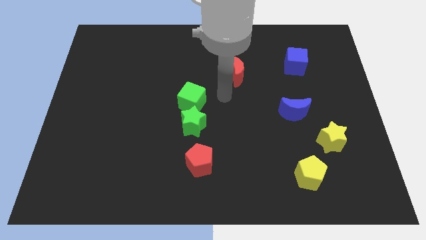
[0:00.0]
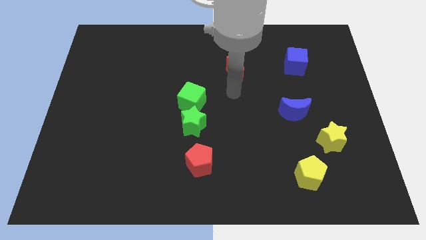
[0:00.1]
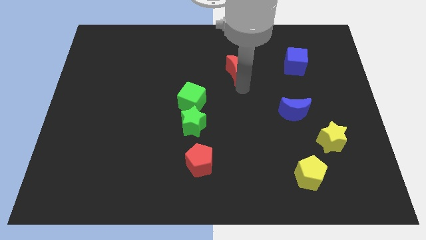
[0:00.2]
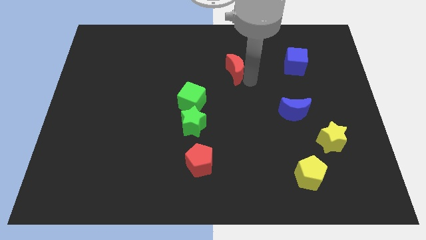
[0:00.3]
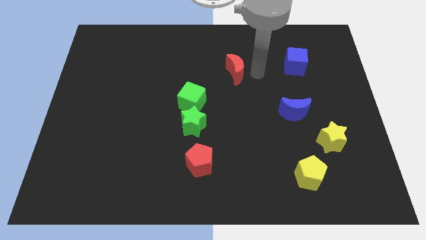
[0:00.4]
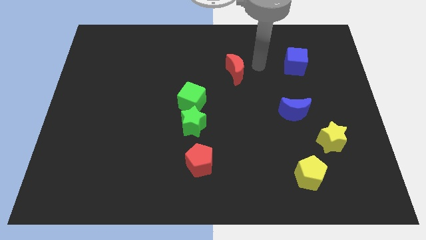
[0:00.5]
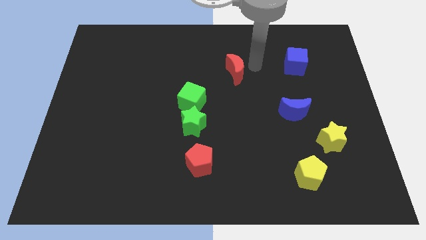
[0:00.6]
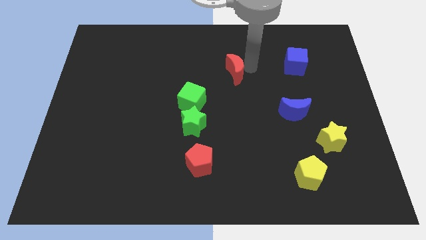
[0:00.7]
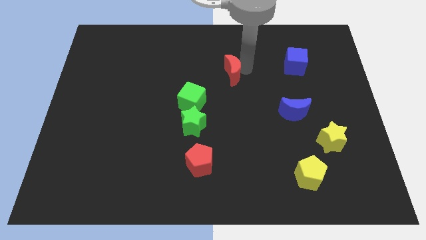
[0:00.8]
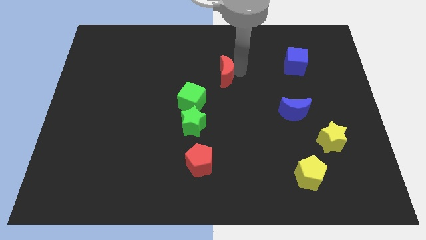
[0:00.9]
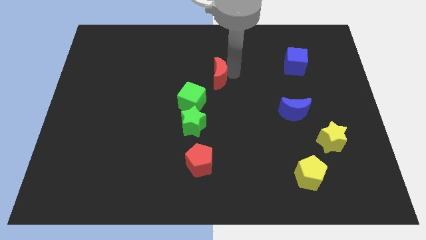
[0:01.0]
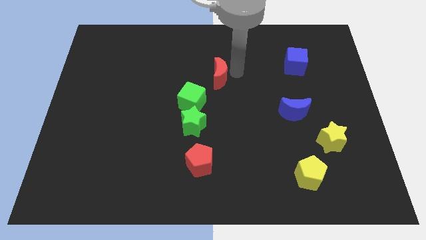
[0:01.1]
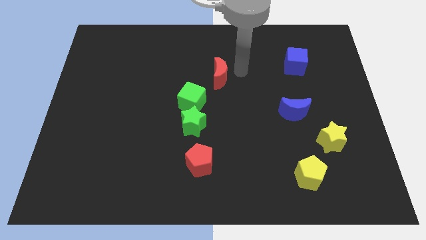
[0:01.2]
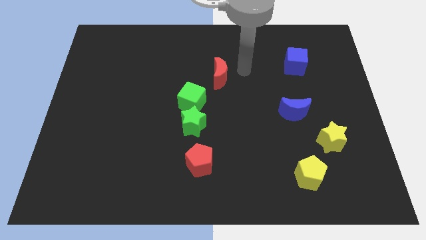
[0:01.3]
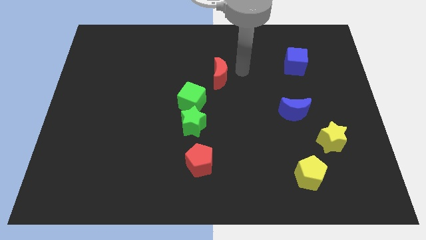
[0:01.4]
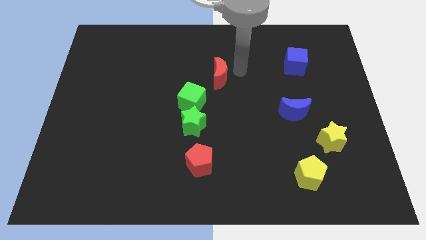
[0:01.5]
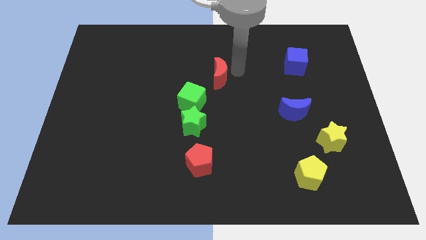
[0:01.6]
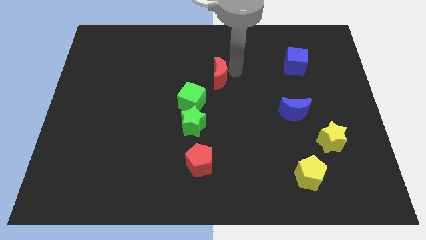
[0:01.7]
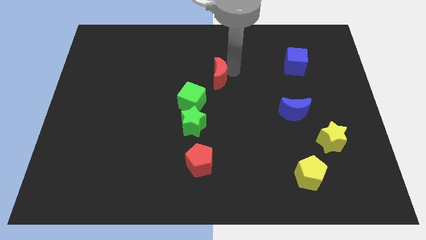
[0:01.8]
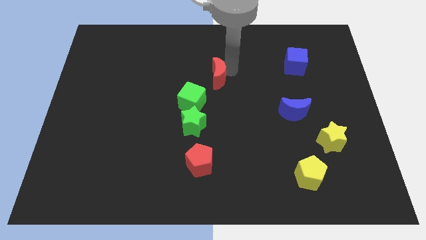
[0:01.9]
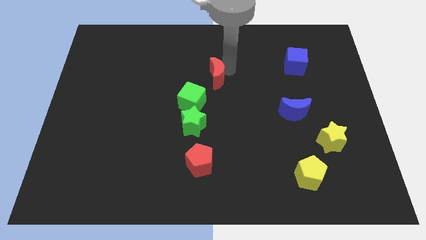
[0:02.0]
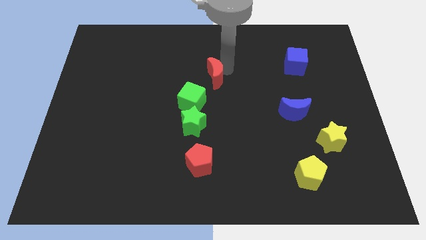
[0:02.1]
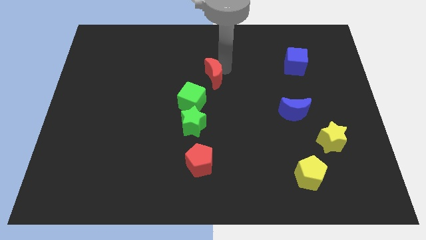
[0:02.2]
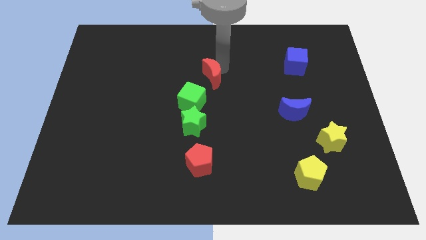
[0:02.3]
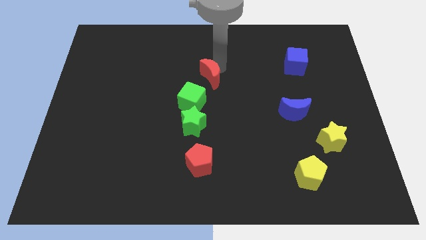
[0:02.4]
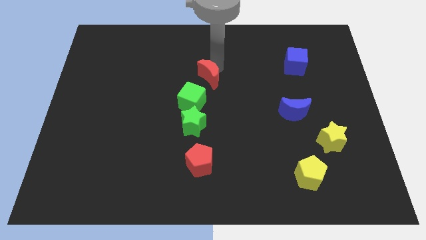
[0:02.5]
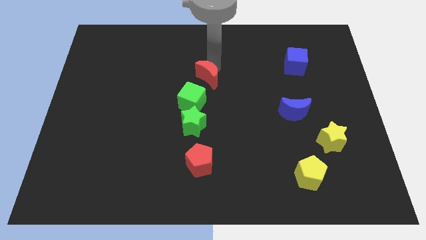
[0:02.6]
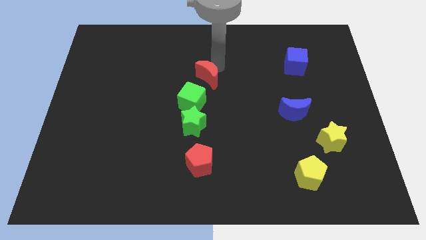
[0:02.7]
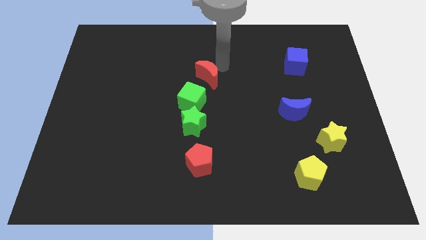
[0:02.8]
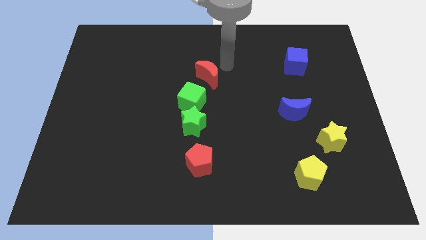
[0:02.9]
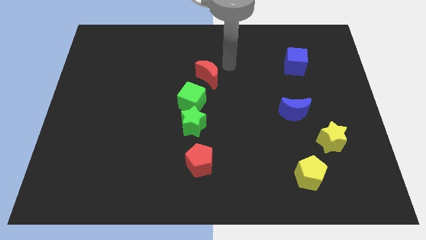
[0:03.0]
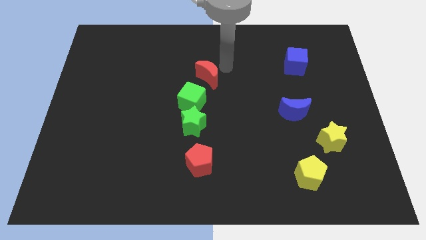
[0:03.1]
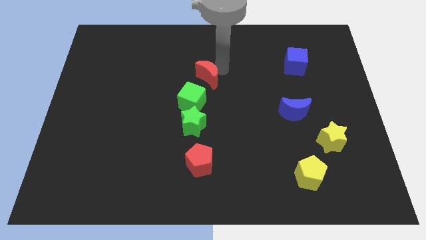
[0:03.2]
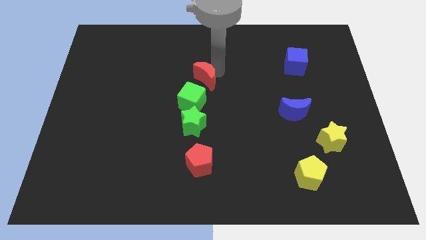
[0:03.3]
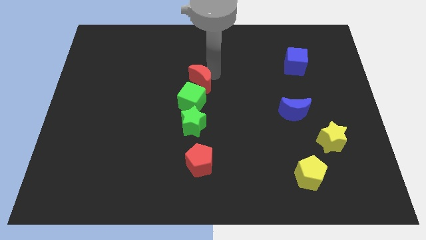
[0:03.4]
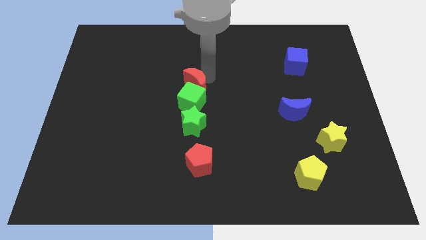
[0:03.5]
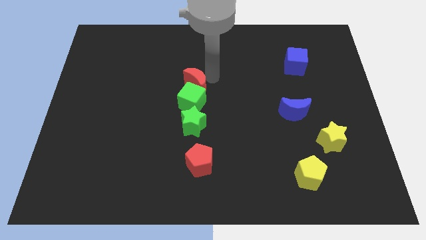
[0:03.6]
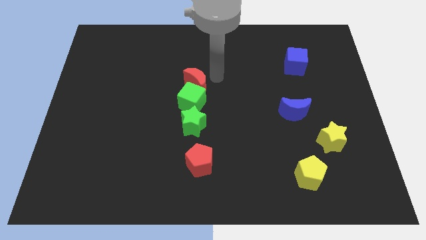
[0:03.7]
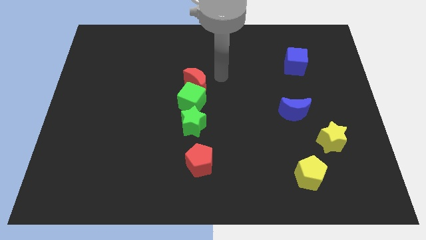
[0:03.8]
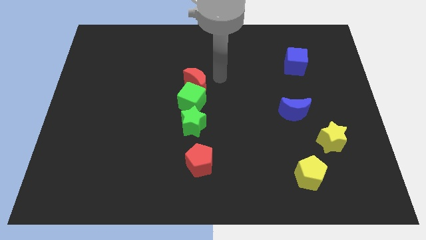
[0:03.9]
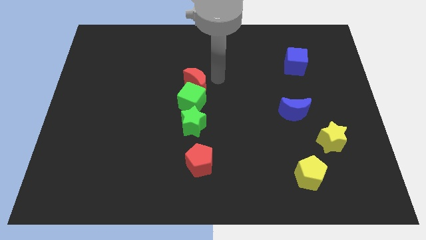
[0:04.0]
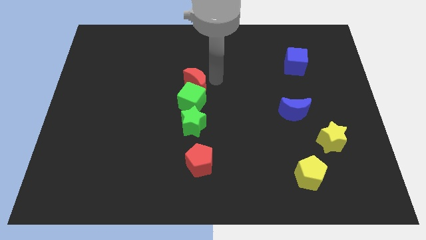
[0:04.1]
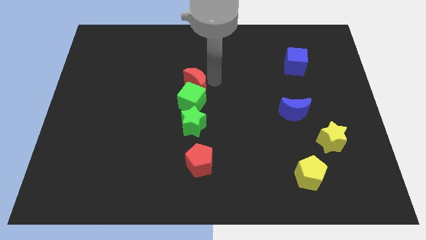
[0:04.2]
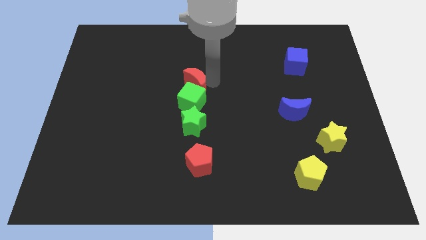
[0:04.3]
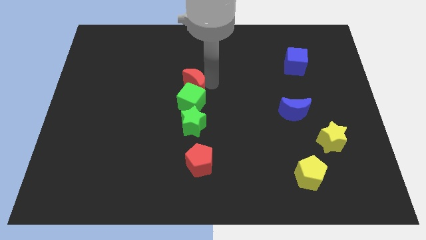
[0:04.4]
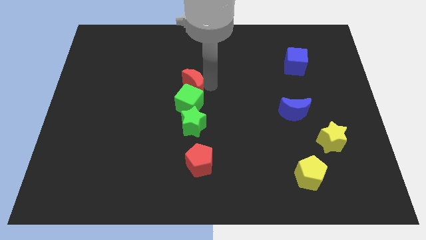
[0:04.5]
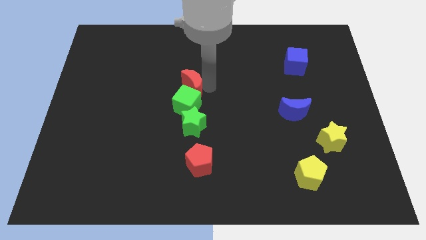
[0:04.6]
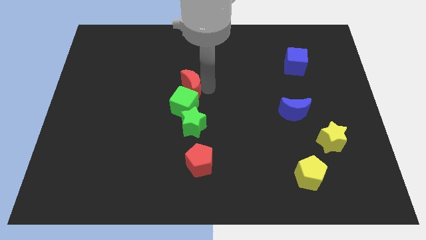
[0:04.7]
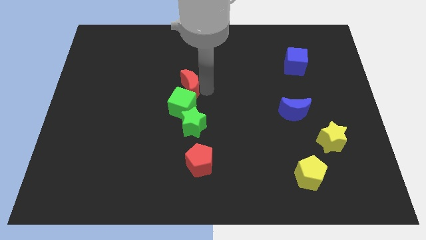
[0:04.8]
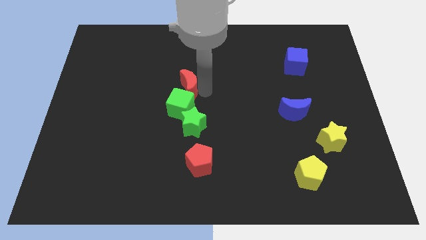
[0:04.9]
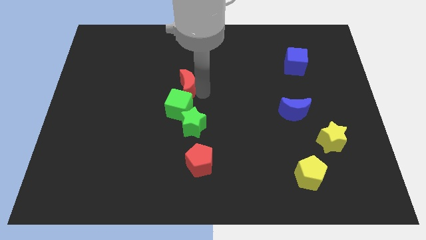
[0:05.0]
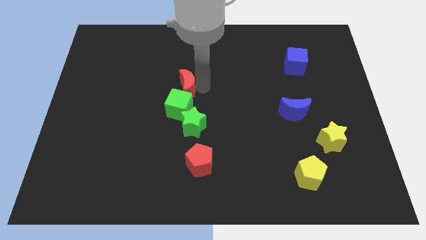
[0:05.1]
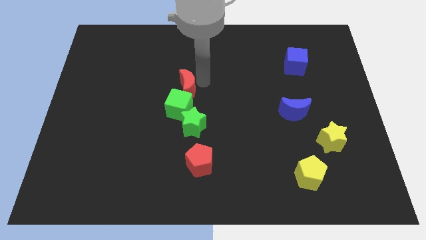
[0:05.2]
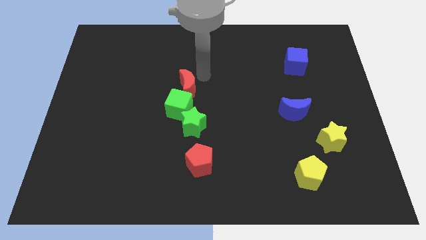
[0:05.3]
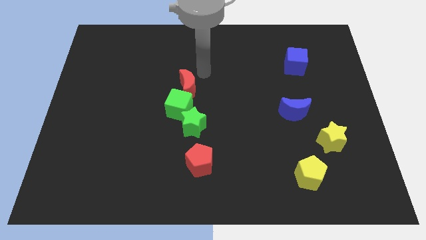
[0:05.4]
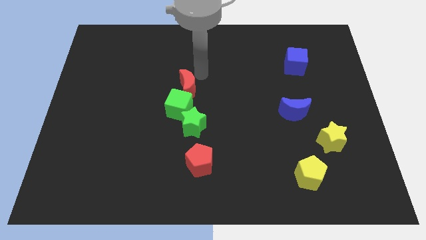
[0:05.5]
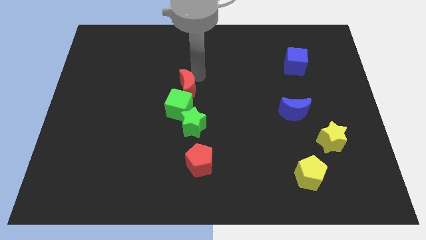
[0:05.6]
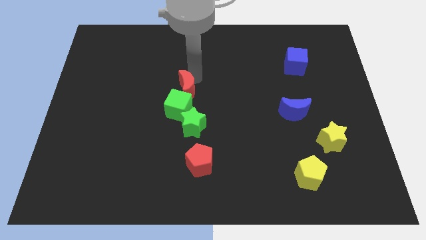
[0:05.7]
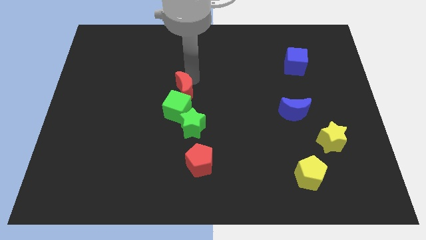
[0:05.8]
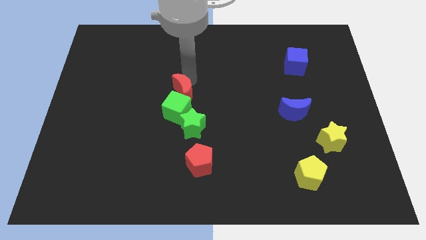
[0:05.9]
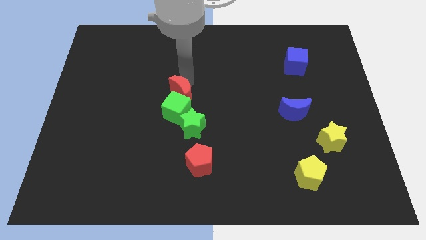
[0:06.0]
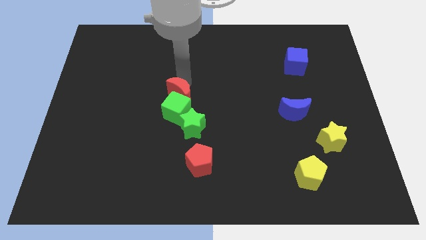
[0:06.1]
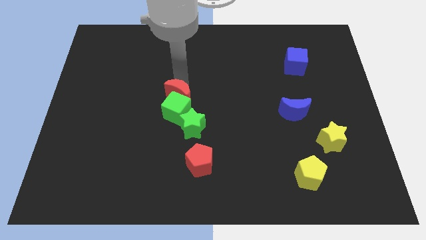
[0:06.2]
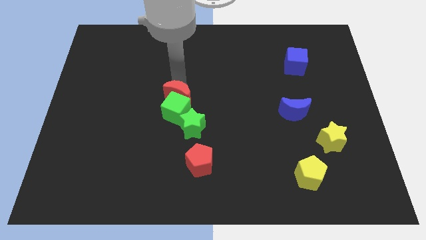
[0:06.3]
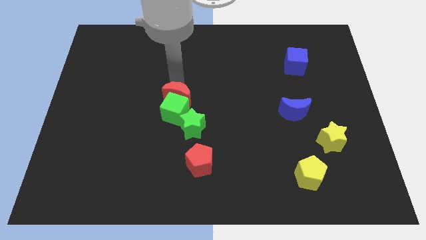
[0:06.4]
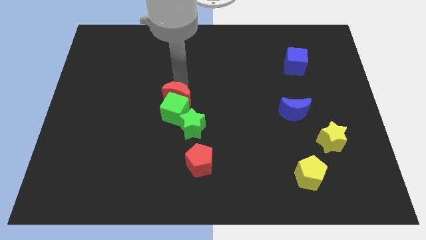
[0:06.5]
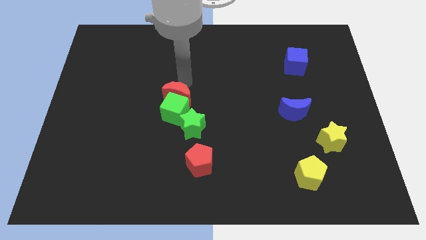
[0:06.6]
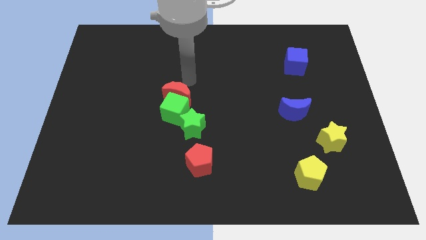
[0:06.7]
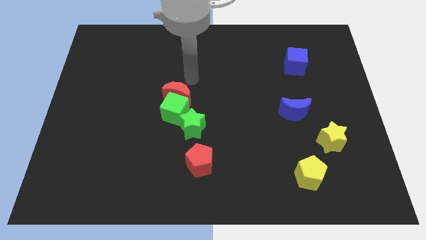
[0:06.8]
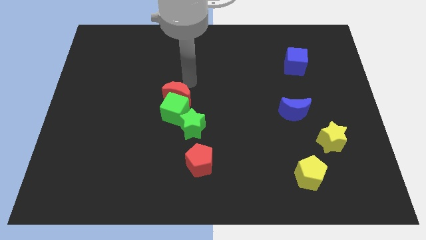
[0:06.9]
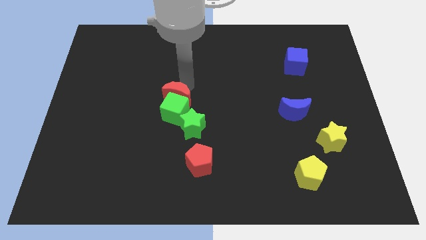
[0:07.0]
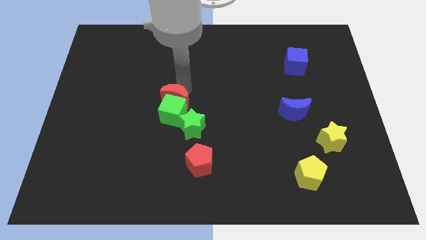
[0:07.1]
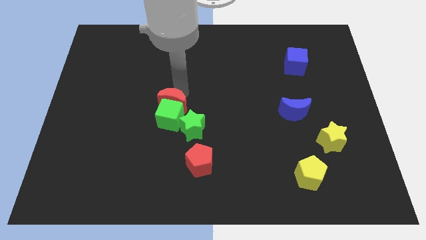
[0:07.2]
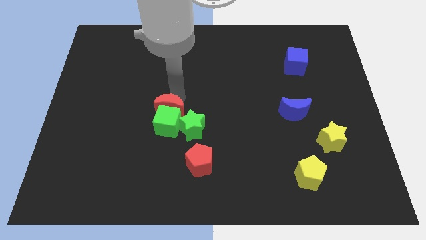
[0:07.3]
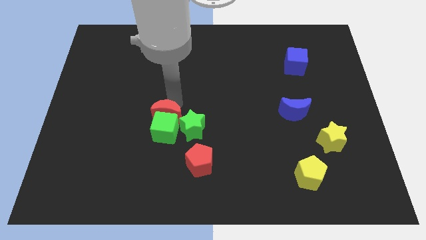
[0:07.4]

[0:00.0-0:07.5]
move the red moon down and left

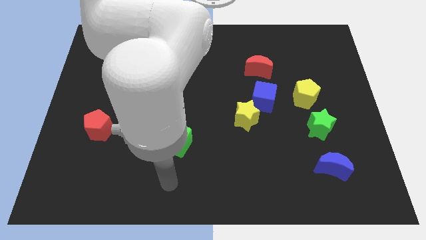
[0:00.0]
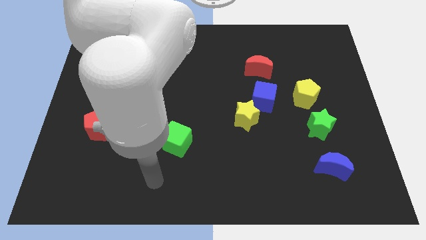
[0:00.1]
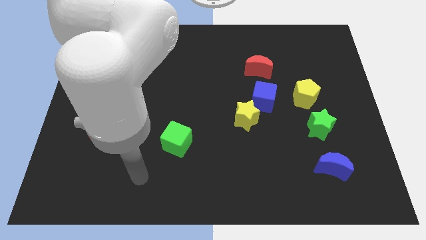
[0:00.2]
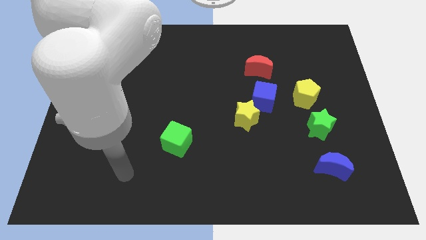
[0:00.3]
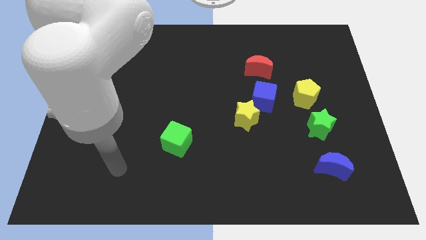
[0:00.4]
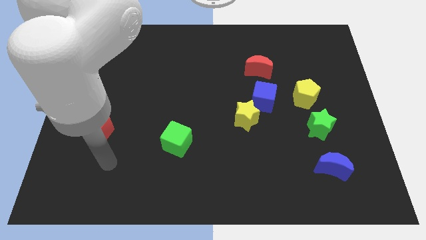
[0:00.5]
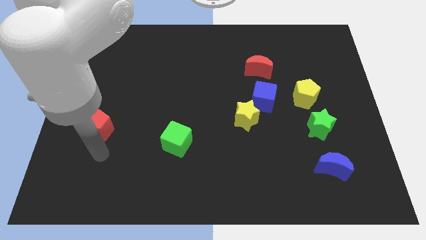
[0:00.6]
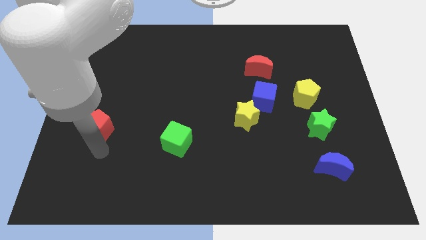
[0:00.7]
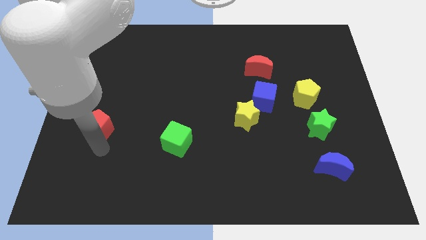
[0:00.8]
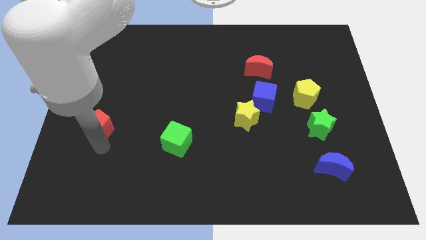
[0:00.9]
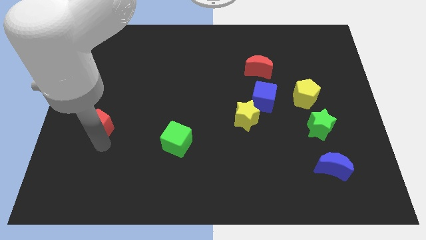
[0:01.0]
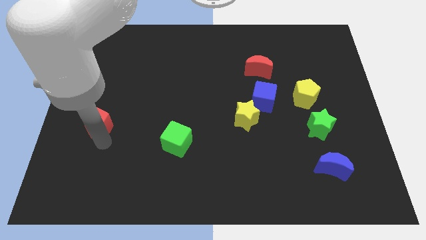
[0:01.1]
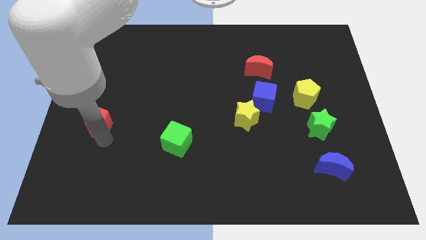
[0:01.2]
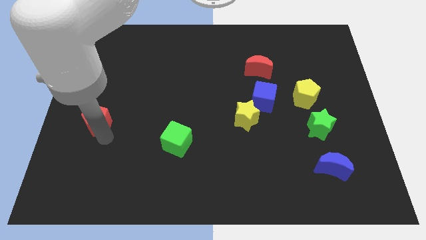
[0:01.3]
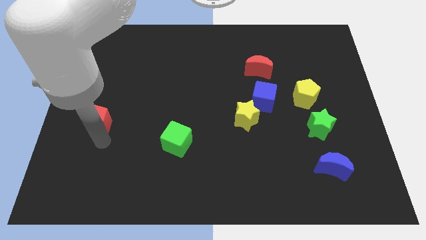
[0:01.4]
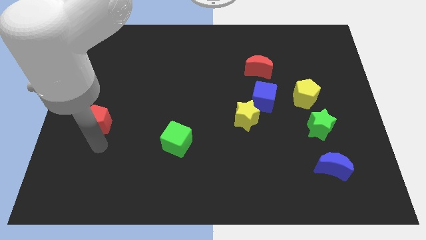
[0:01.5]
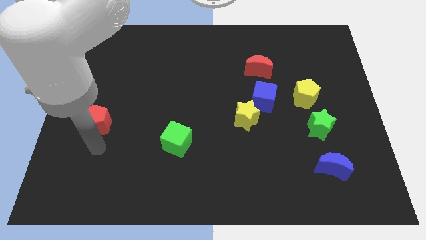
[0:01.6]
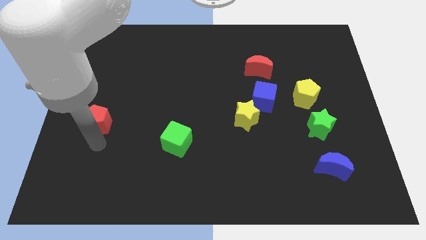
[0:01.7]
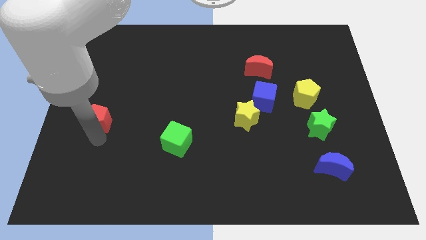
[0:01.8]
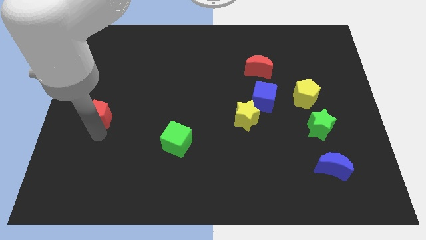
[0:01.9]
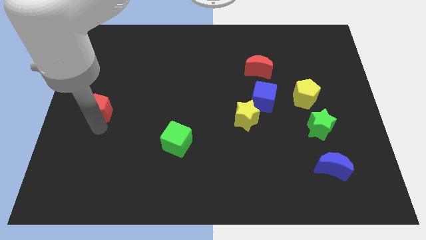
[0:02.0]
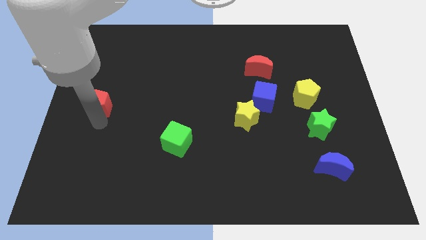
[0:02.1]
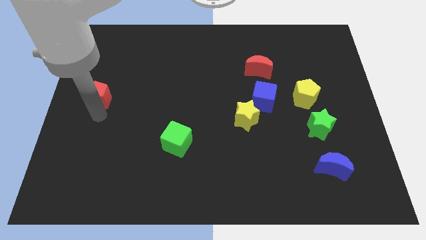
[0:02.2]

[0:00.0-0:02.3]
slide the red pentagon a little bit upwards
